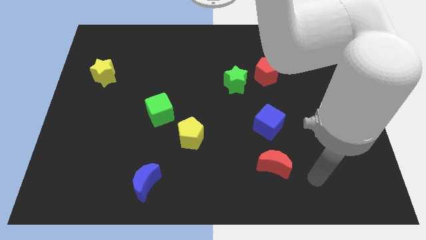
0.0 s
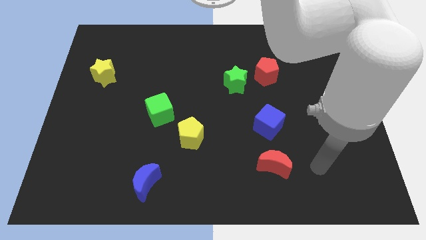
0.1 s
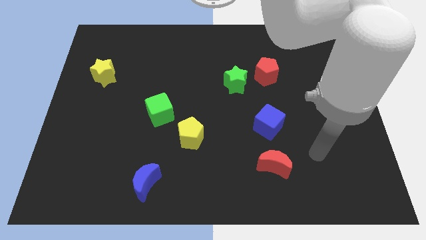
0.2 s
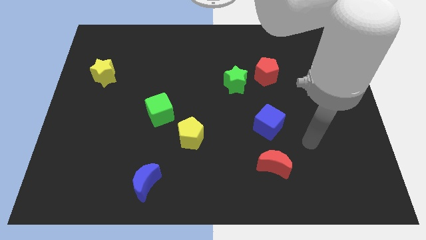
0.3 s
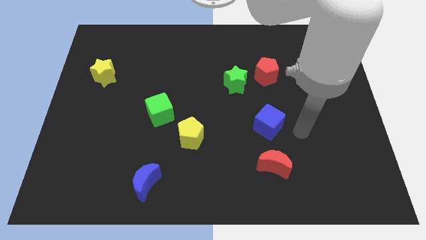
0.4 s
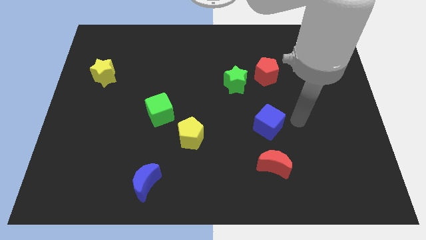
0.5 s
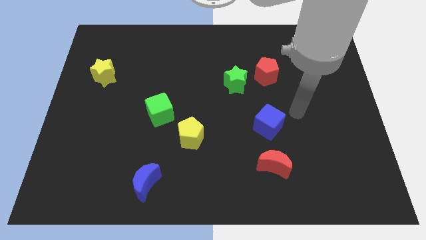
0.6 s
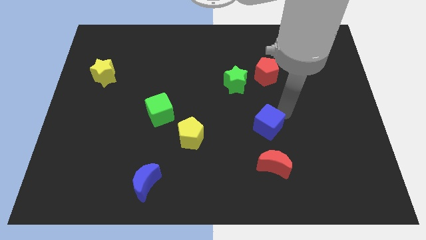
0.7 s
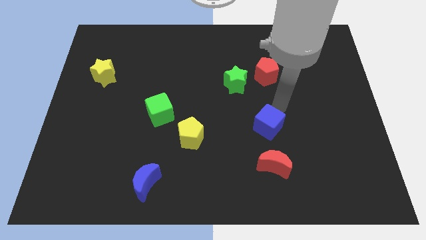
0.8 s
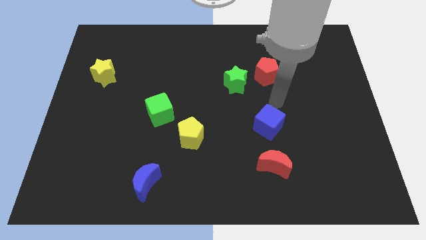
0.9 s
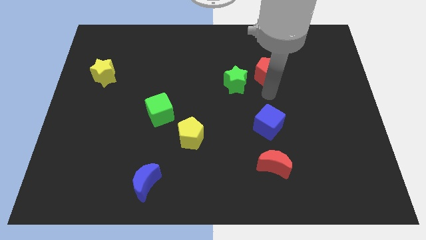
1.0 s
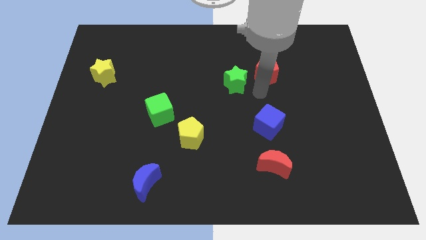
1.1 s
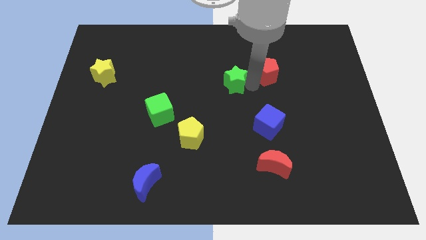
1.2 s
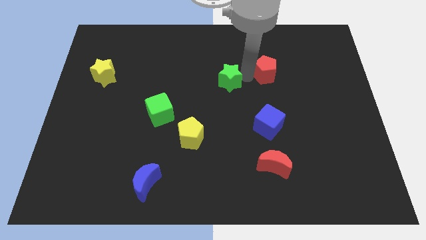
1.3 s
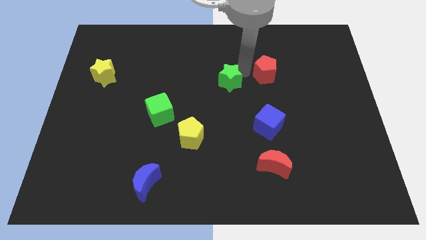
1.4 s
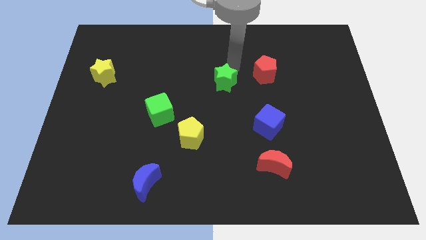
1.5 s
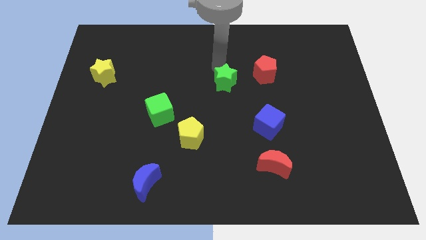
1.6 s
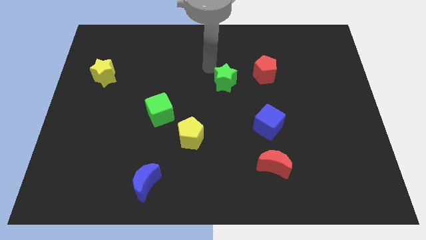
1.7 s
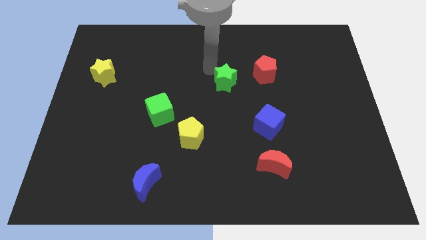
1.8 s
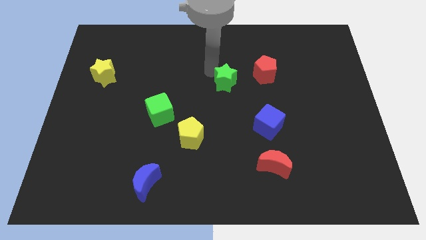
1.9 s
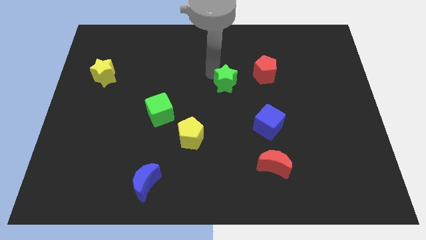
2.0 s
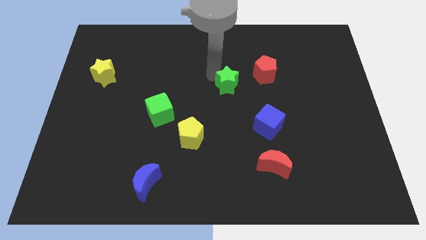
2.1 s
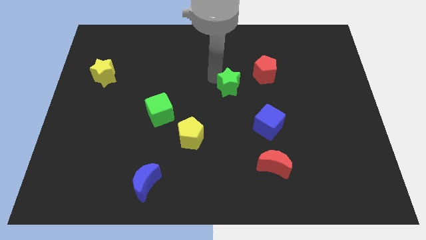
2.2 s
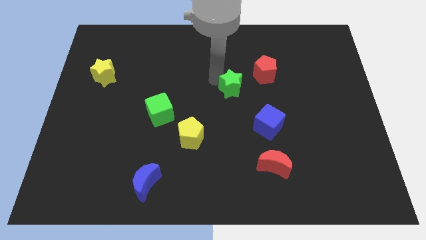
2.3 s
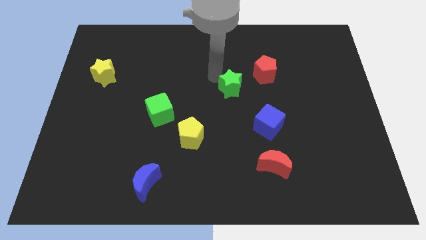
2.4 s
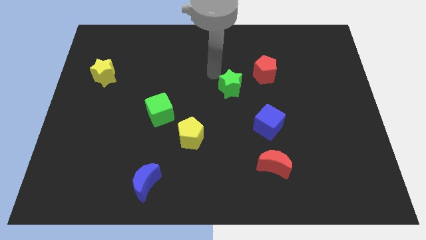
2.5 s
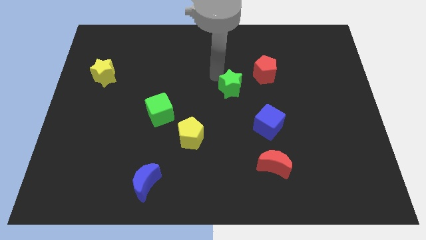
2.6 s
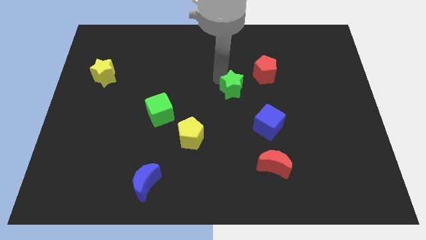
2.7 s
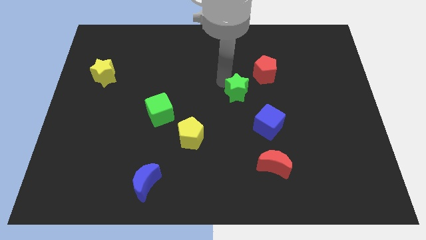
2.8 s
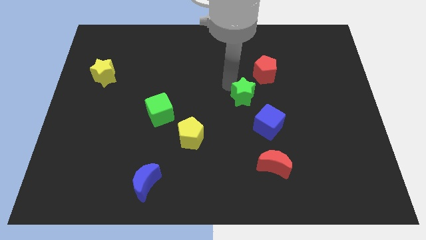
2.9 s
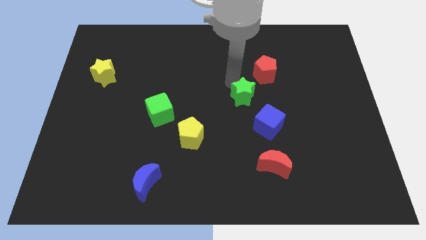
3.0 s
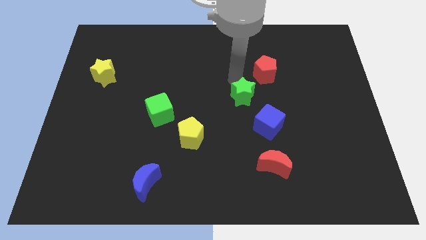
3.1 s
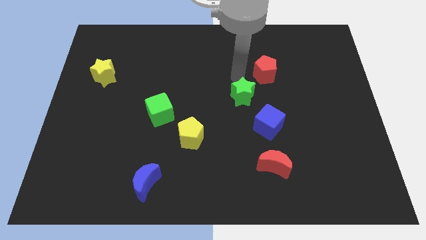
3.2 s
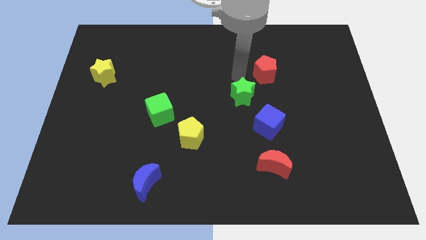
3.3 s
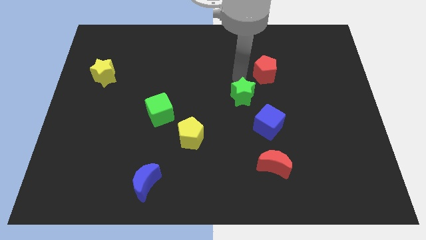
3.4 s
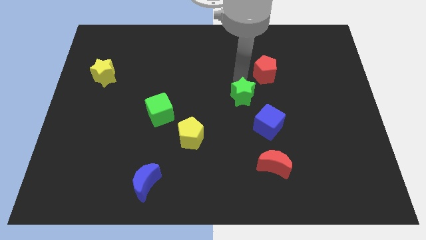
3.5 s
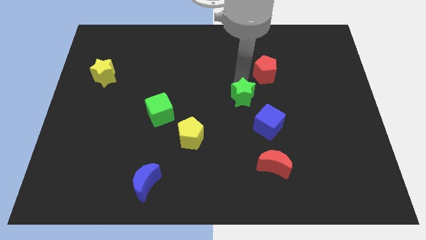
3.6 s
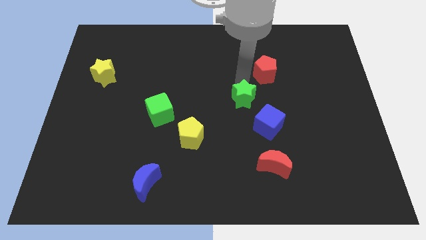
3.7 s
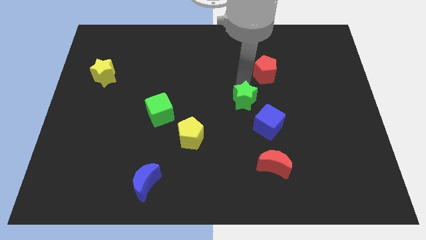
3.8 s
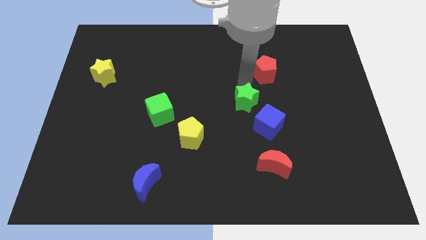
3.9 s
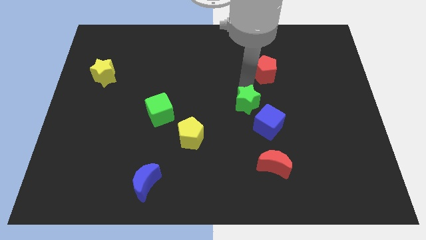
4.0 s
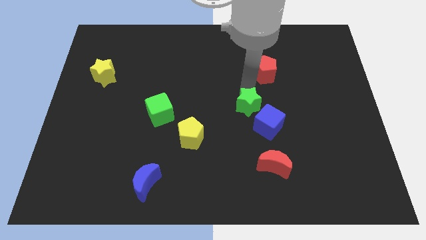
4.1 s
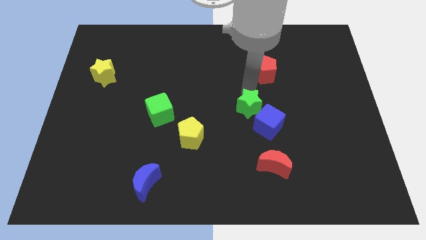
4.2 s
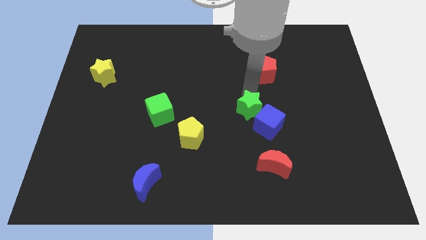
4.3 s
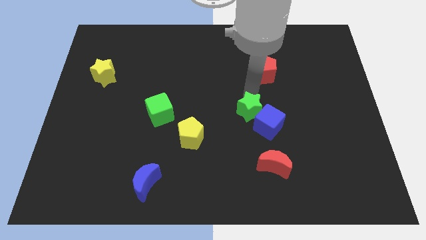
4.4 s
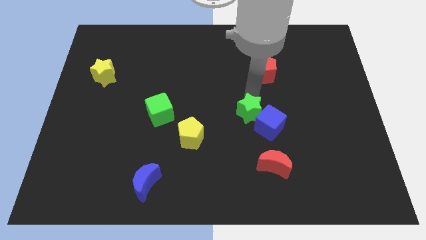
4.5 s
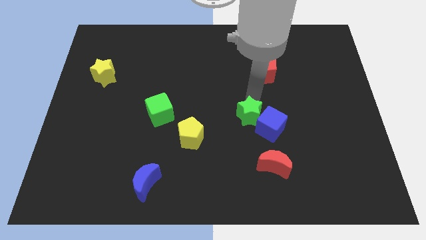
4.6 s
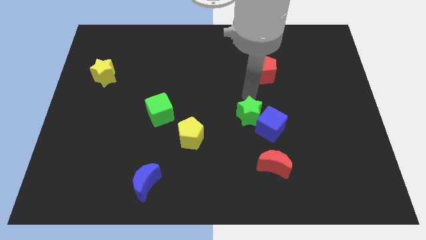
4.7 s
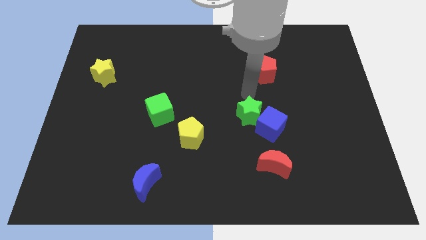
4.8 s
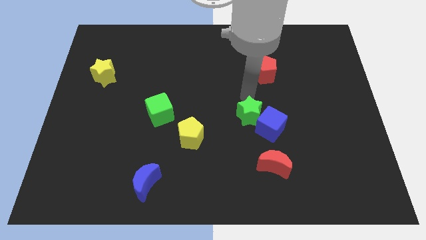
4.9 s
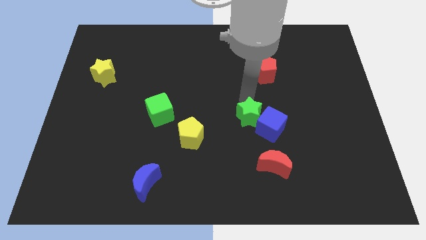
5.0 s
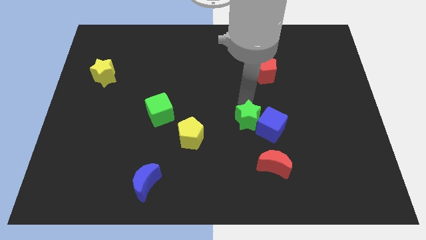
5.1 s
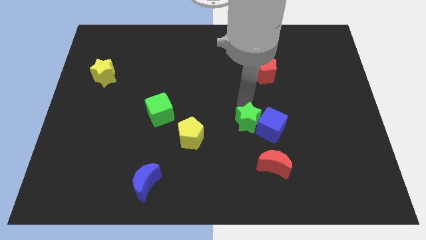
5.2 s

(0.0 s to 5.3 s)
slide the green star to the bottom left of the blue cube

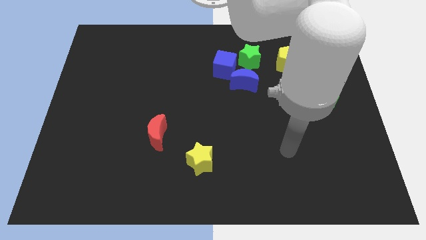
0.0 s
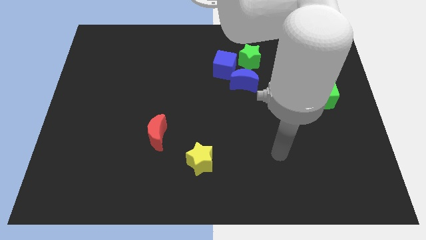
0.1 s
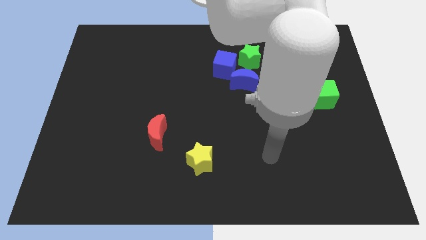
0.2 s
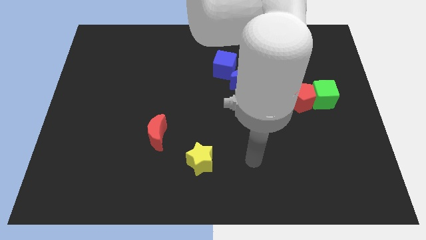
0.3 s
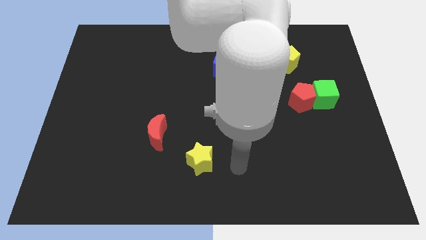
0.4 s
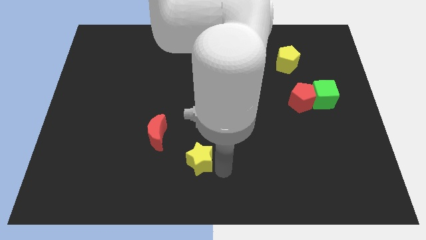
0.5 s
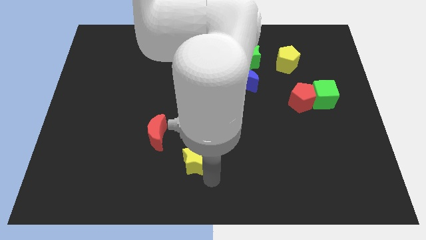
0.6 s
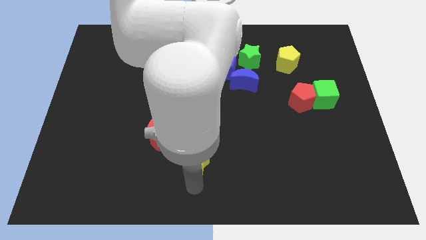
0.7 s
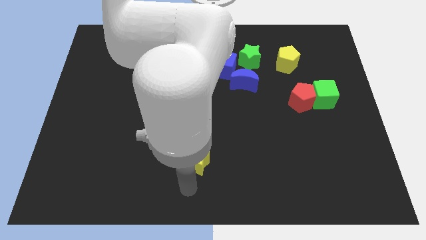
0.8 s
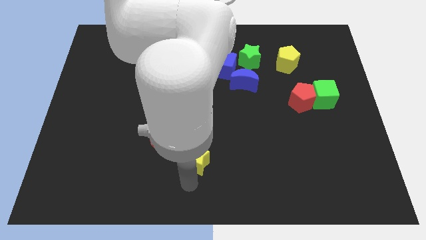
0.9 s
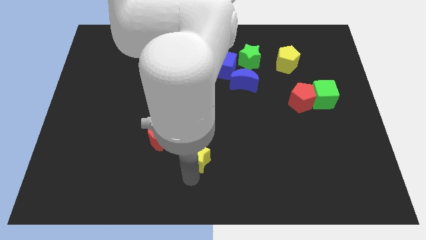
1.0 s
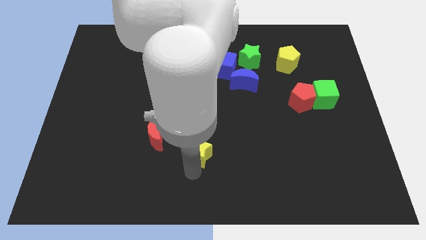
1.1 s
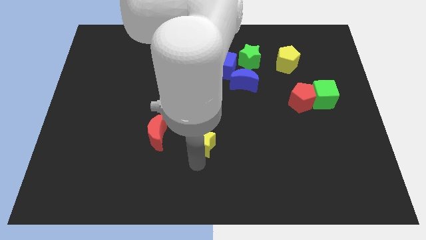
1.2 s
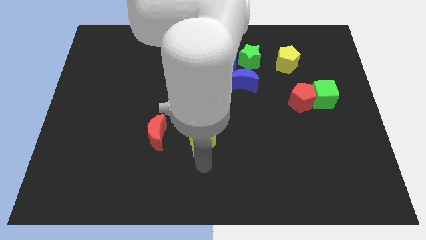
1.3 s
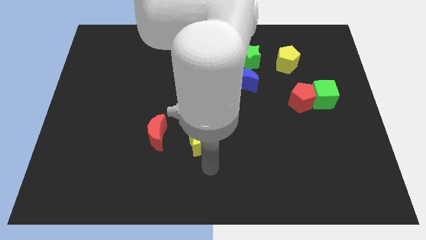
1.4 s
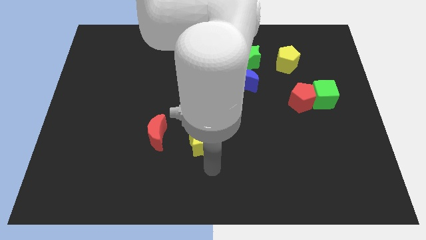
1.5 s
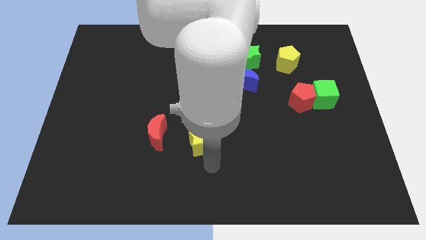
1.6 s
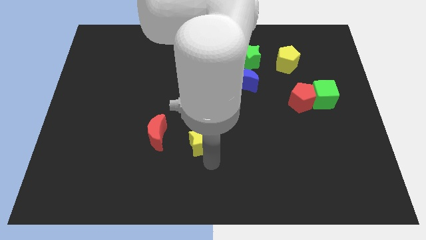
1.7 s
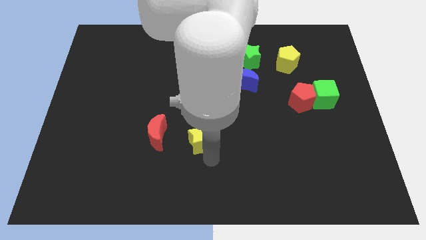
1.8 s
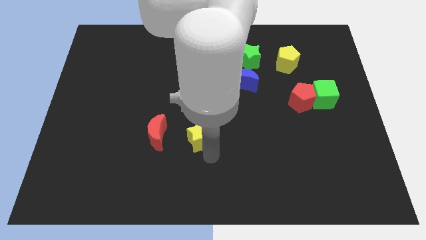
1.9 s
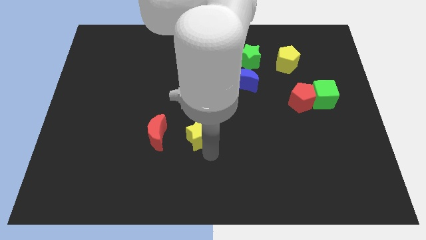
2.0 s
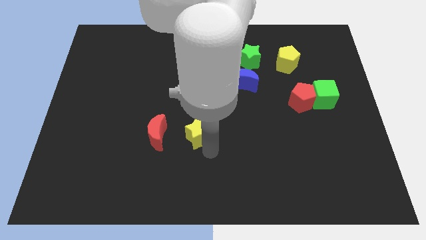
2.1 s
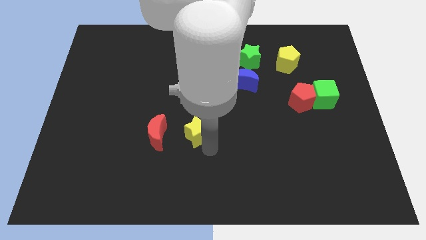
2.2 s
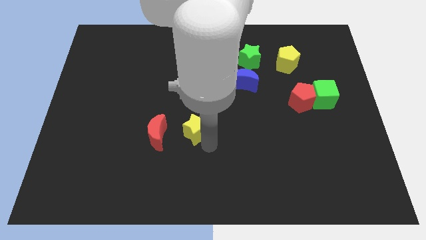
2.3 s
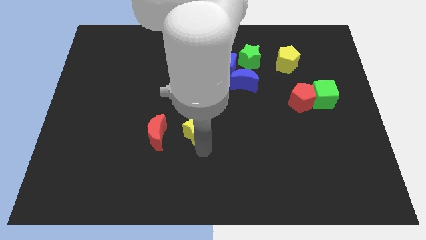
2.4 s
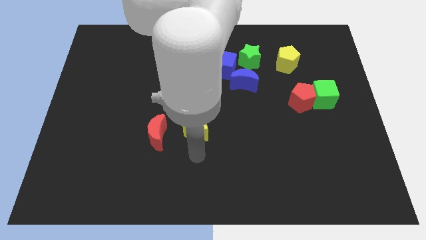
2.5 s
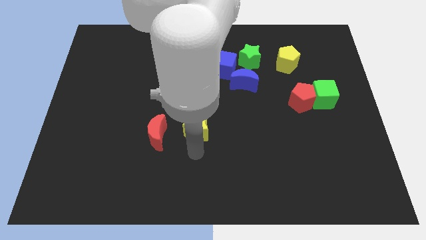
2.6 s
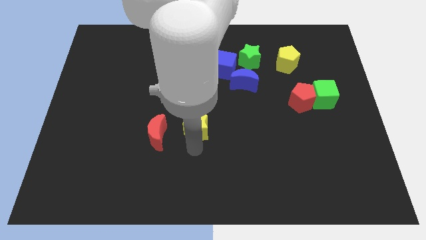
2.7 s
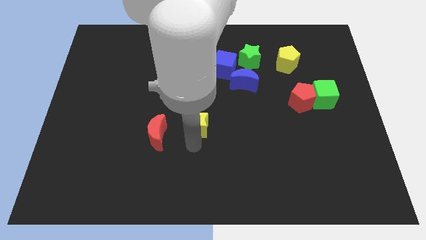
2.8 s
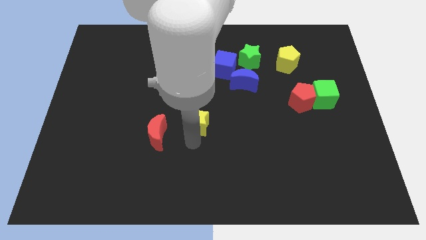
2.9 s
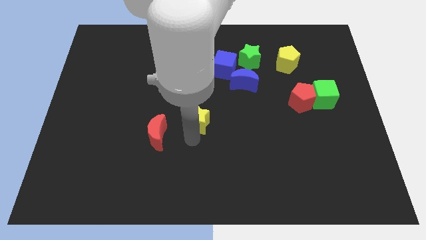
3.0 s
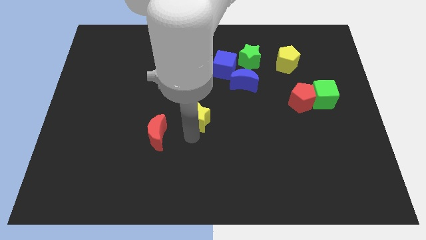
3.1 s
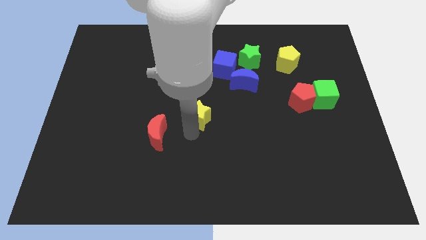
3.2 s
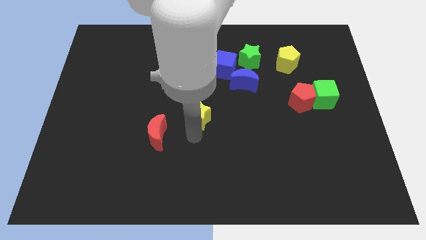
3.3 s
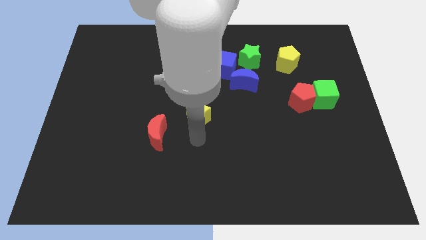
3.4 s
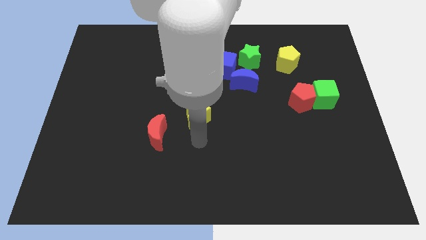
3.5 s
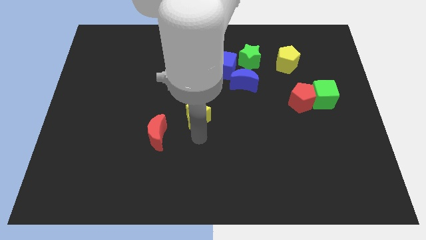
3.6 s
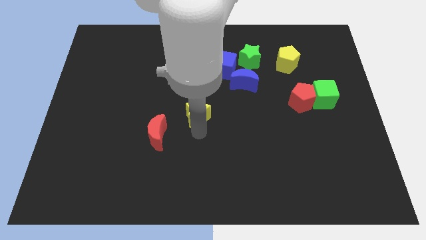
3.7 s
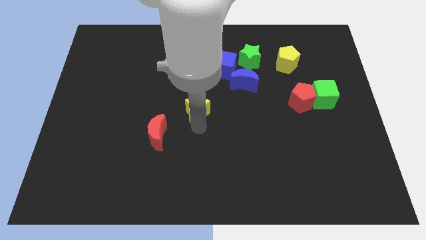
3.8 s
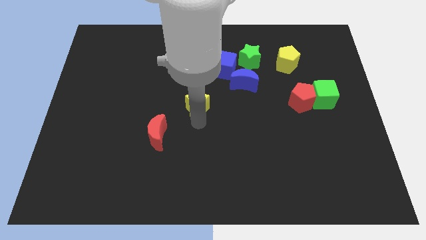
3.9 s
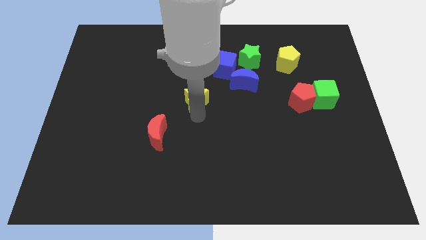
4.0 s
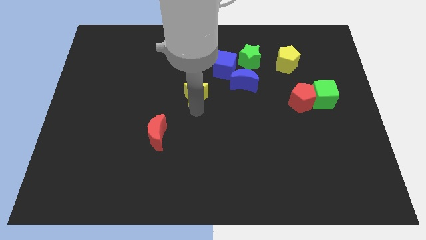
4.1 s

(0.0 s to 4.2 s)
slide the yellow star to the left side of the blue moon
